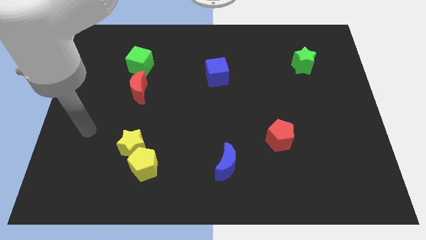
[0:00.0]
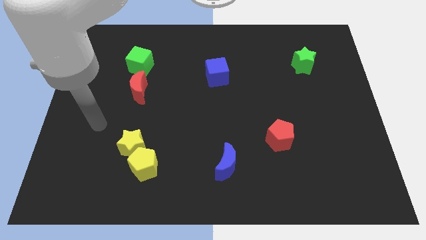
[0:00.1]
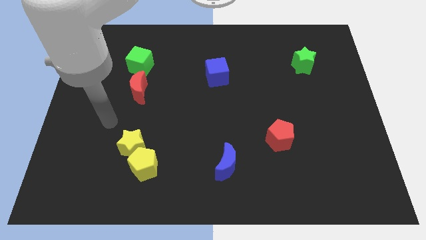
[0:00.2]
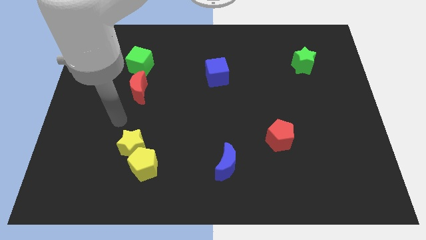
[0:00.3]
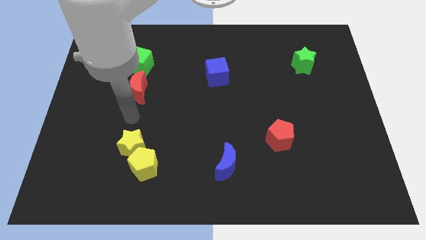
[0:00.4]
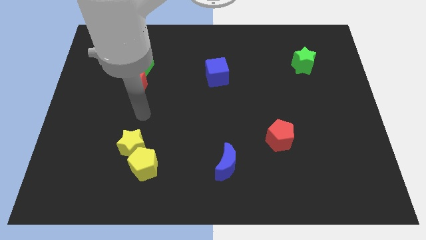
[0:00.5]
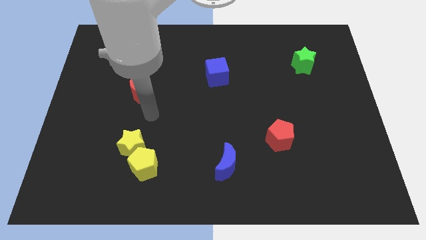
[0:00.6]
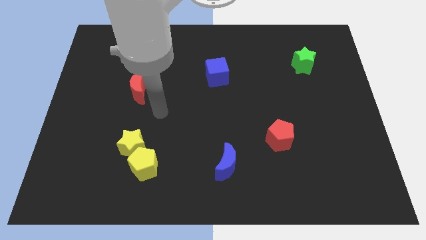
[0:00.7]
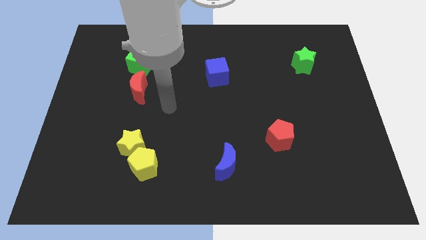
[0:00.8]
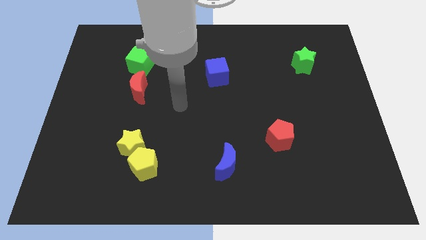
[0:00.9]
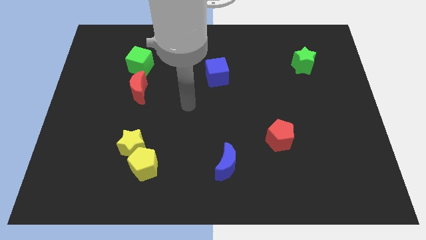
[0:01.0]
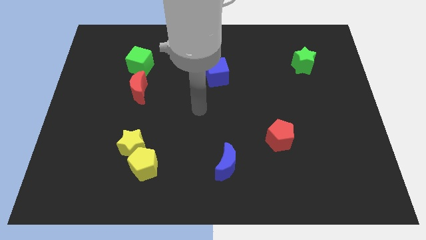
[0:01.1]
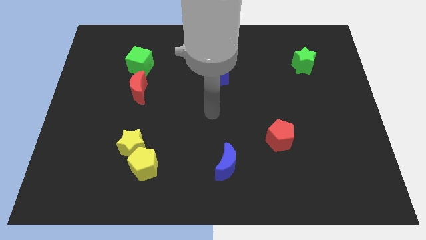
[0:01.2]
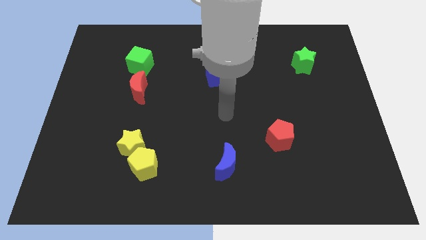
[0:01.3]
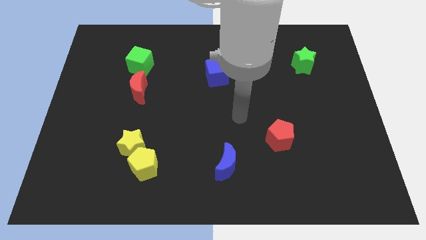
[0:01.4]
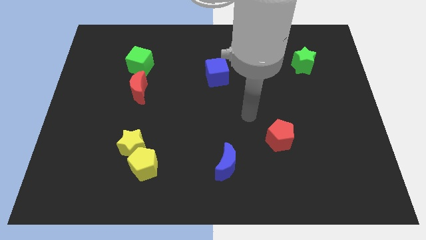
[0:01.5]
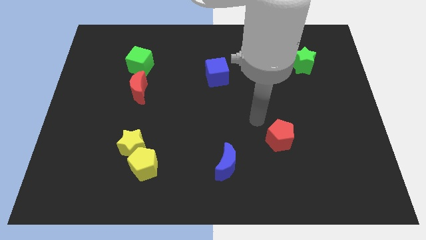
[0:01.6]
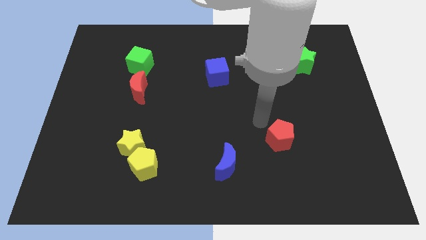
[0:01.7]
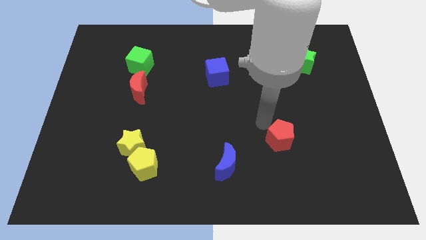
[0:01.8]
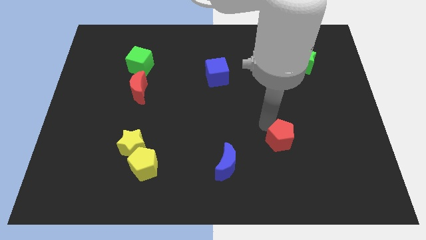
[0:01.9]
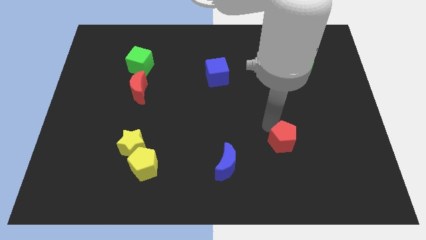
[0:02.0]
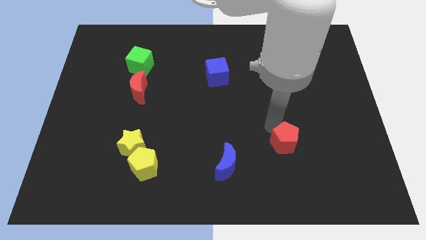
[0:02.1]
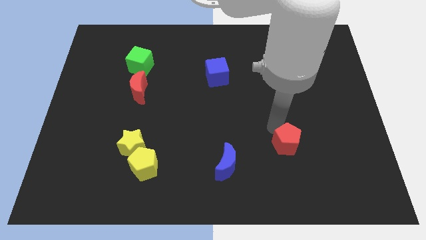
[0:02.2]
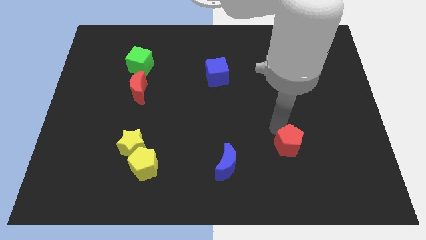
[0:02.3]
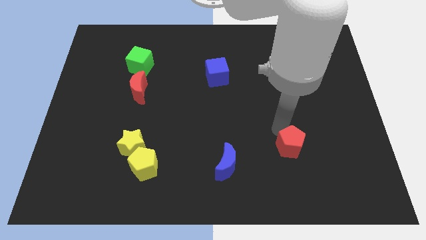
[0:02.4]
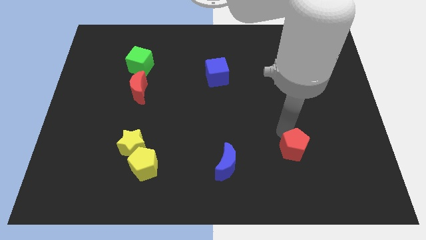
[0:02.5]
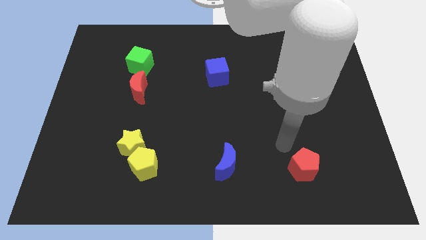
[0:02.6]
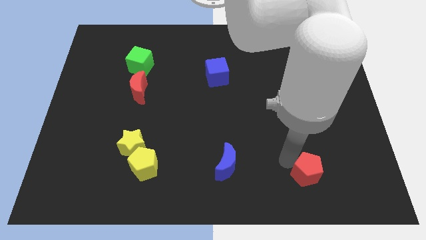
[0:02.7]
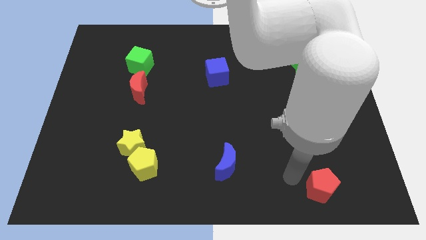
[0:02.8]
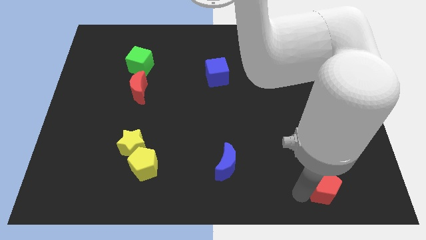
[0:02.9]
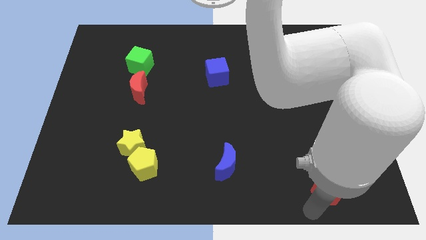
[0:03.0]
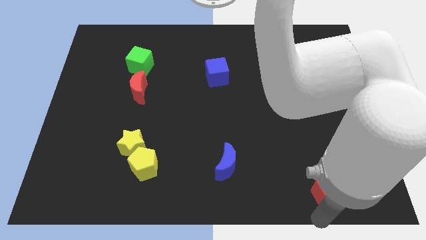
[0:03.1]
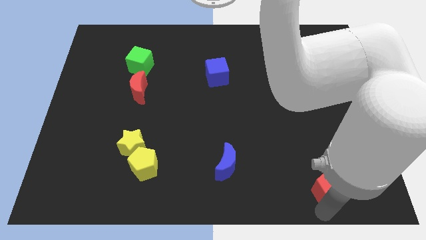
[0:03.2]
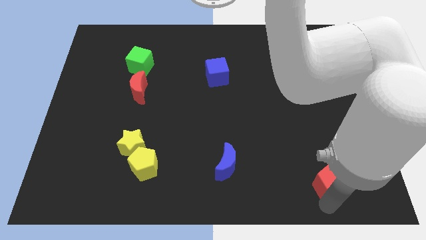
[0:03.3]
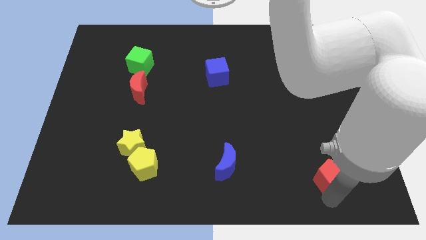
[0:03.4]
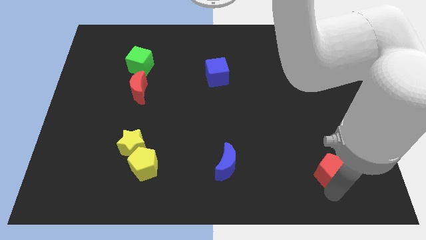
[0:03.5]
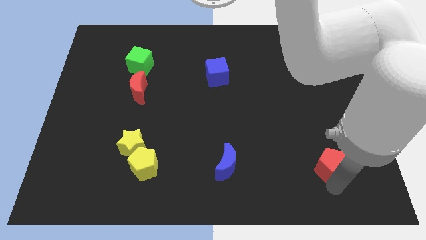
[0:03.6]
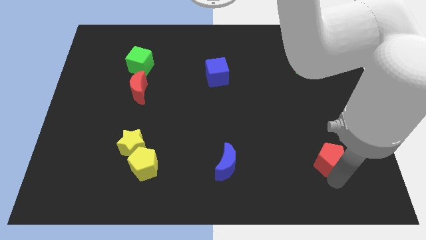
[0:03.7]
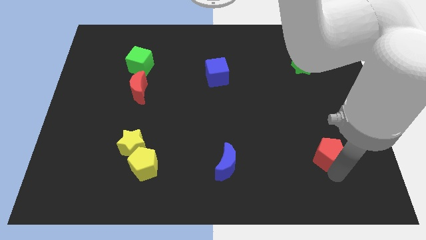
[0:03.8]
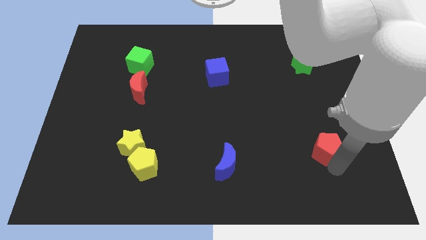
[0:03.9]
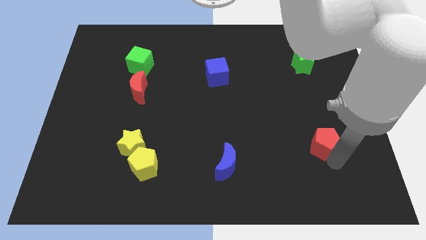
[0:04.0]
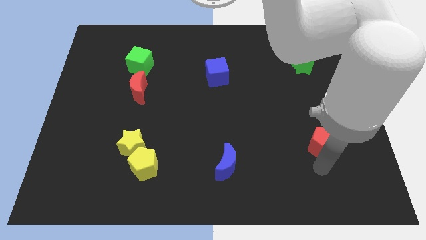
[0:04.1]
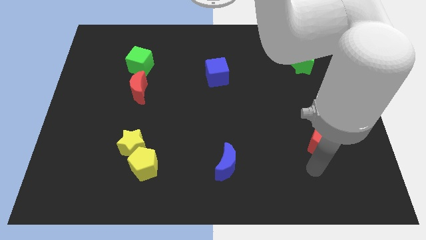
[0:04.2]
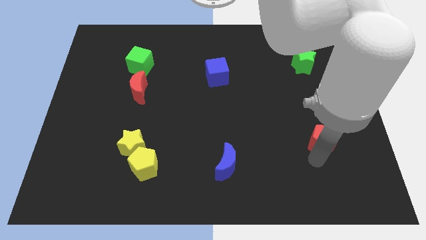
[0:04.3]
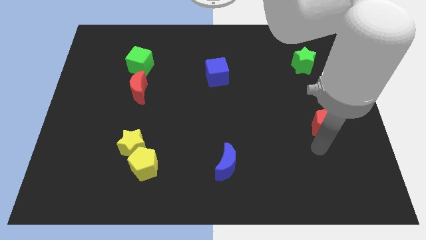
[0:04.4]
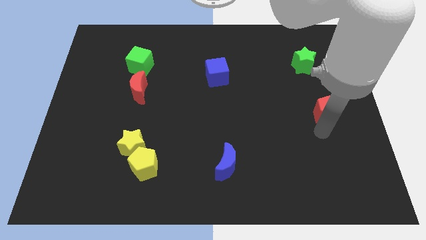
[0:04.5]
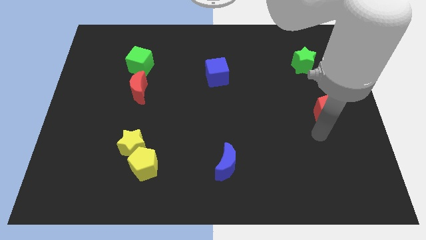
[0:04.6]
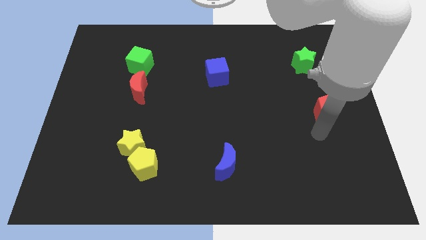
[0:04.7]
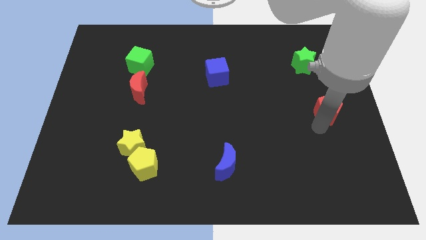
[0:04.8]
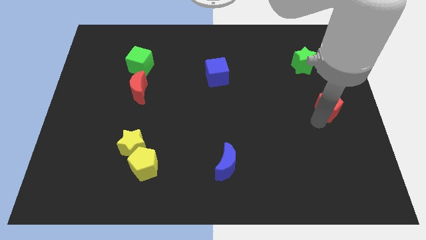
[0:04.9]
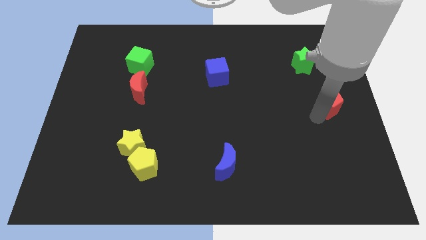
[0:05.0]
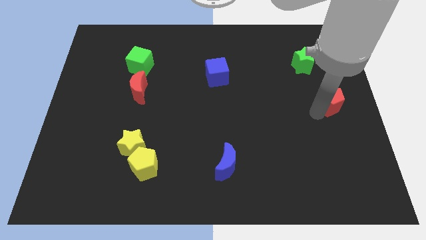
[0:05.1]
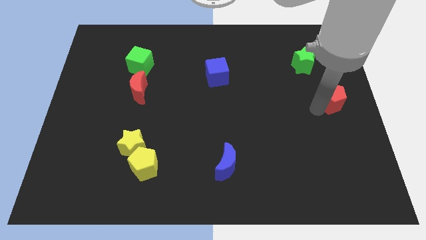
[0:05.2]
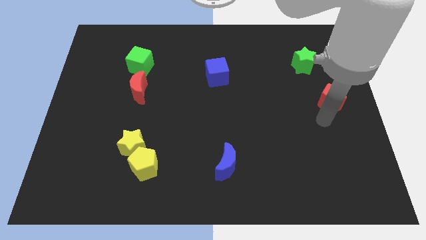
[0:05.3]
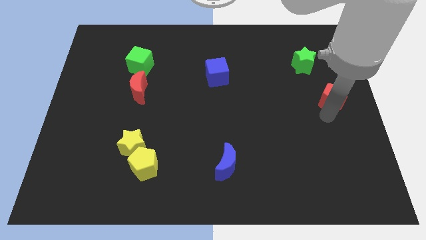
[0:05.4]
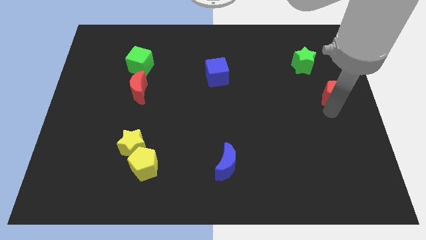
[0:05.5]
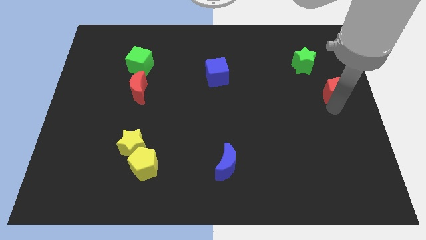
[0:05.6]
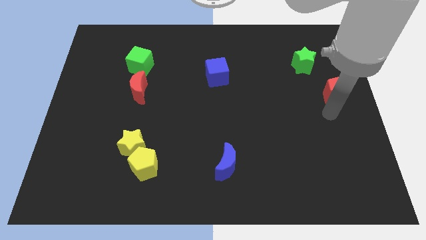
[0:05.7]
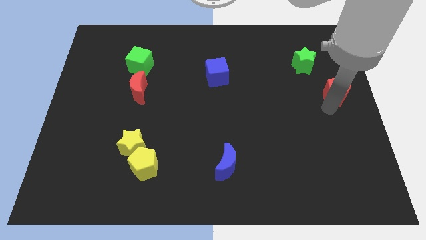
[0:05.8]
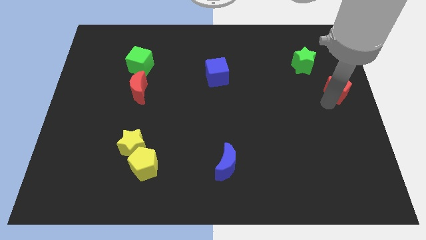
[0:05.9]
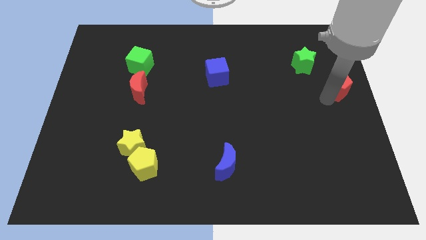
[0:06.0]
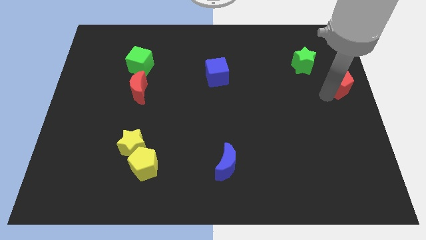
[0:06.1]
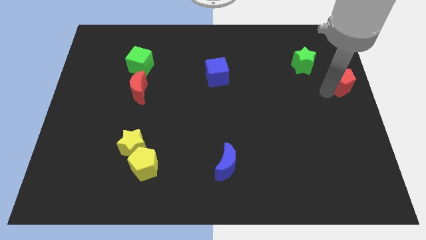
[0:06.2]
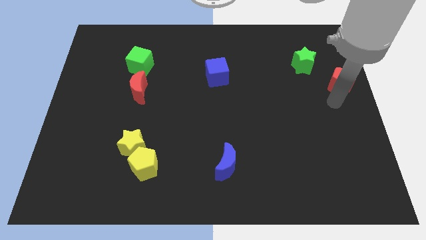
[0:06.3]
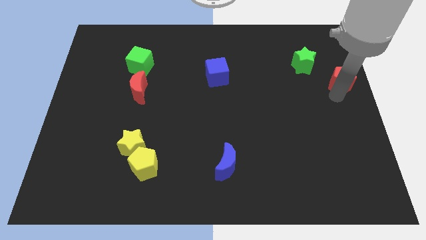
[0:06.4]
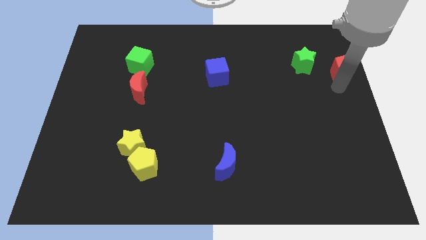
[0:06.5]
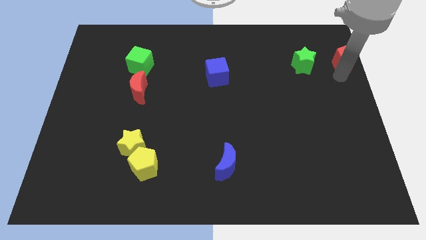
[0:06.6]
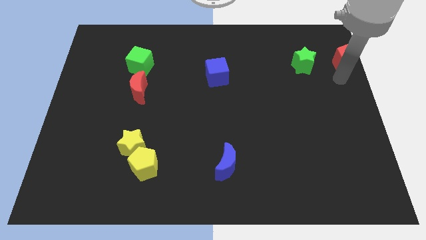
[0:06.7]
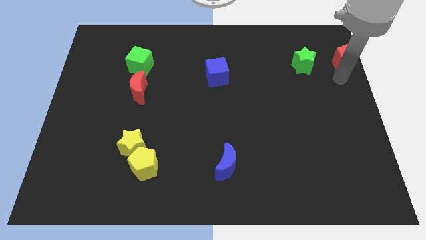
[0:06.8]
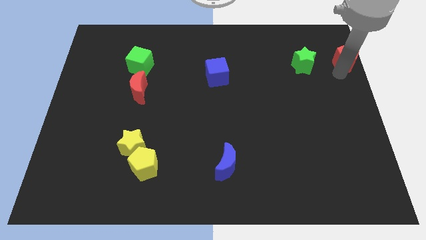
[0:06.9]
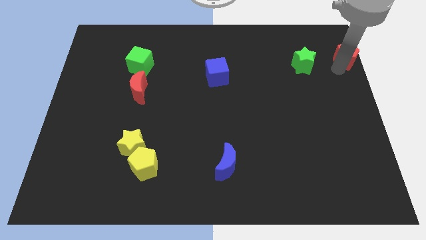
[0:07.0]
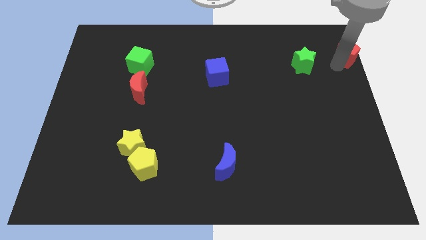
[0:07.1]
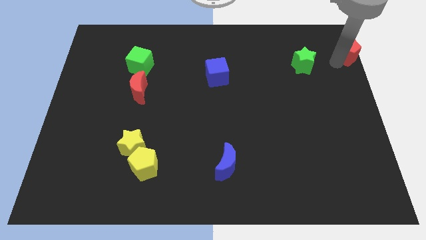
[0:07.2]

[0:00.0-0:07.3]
move the red pentagon to the top right corner
